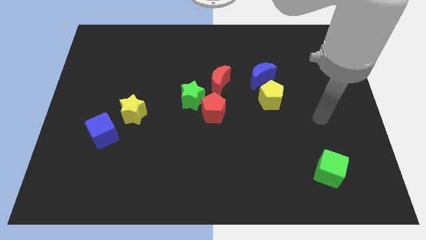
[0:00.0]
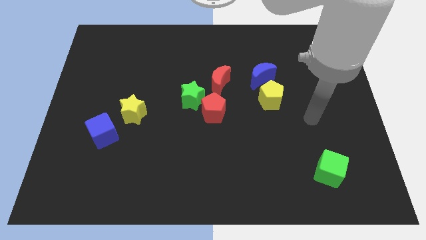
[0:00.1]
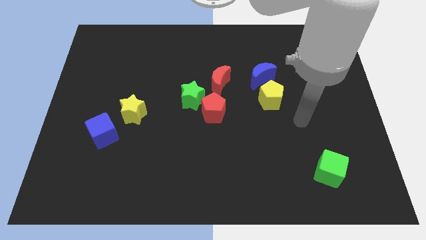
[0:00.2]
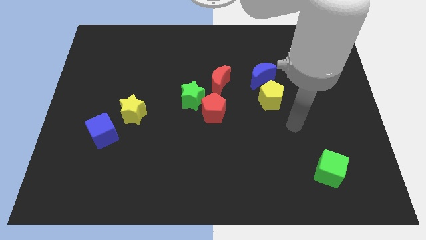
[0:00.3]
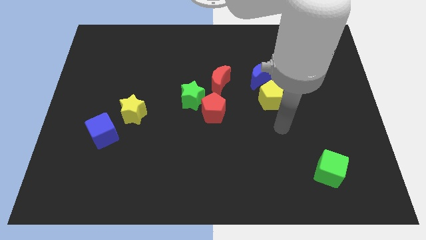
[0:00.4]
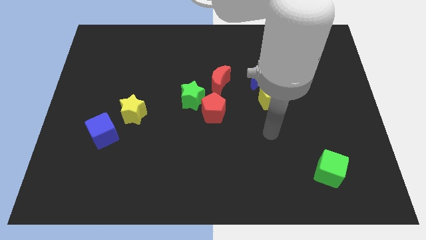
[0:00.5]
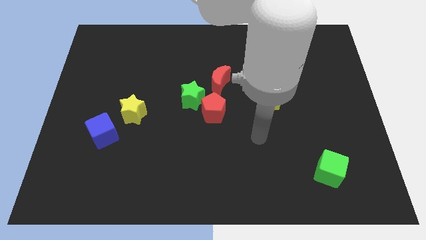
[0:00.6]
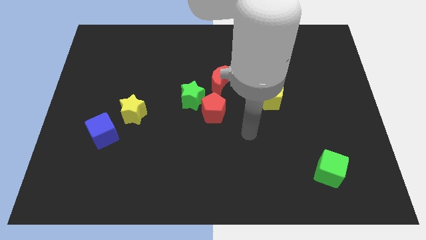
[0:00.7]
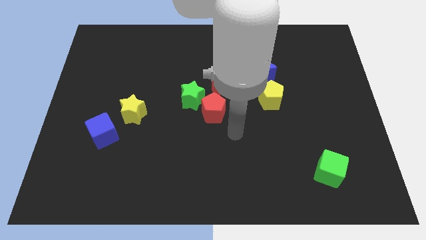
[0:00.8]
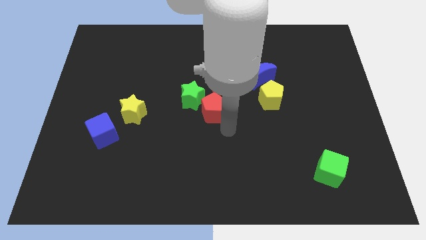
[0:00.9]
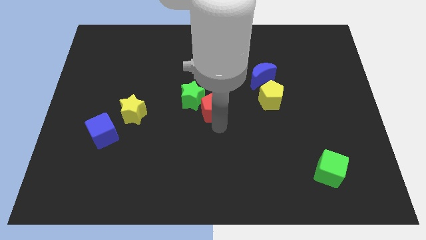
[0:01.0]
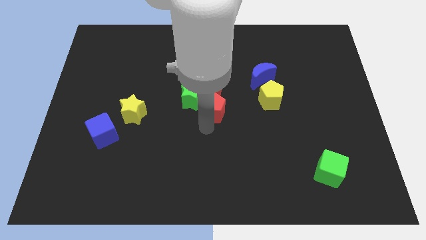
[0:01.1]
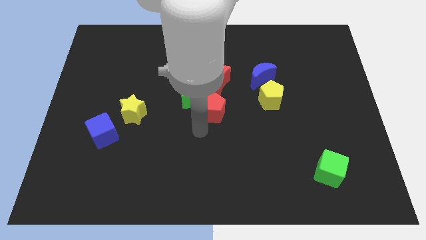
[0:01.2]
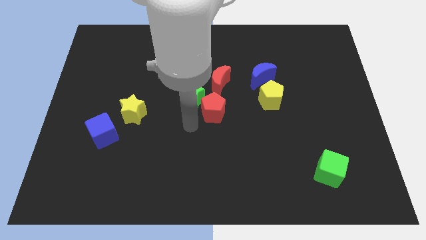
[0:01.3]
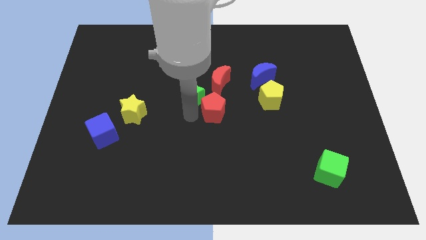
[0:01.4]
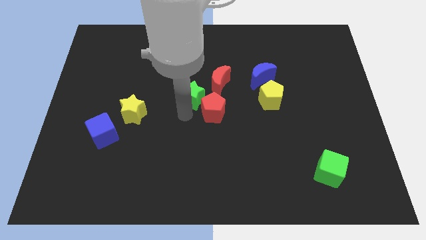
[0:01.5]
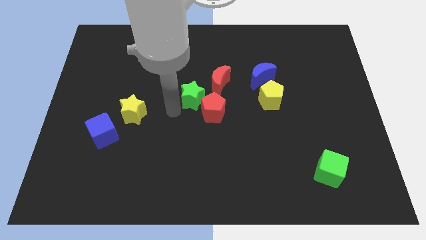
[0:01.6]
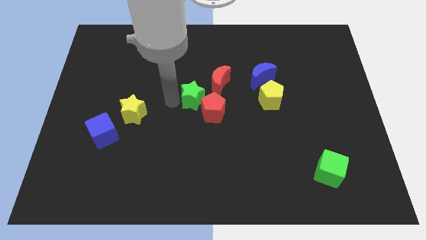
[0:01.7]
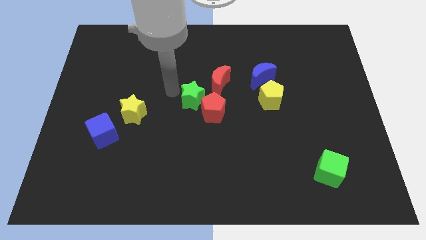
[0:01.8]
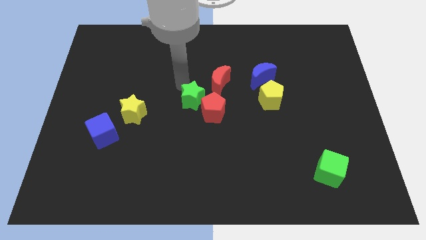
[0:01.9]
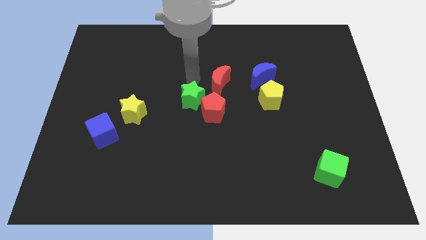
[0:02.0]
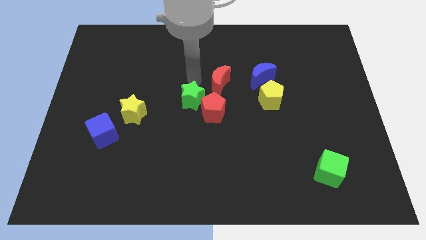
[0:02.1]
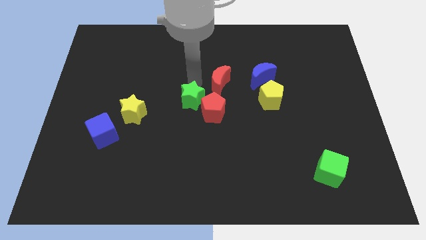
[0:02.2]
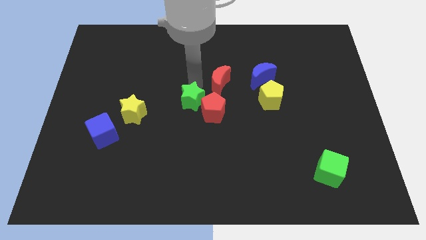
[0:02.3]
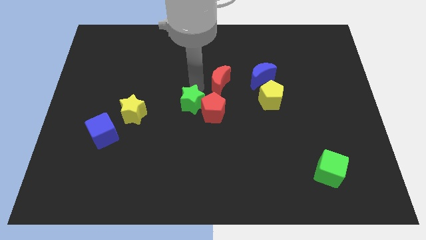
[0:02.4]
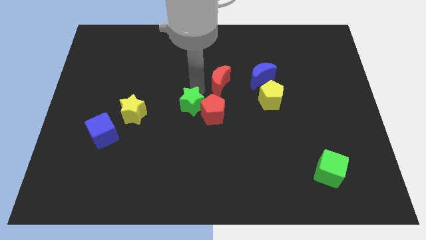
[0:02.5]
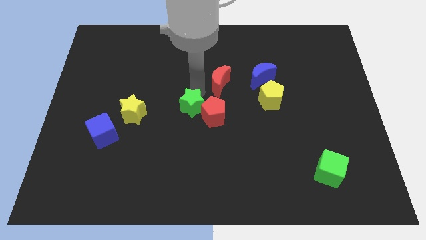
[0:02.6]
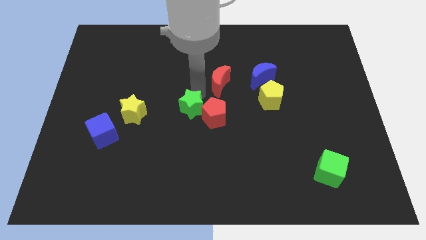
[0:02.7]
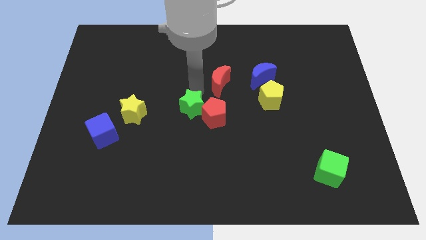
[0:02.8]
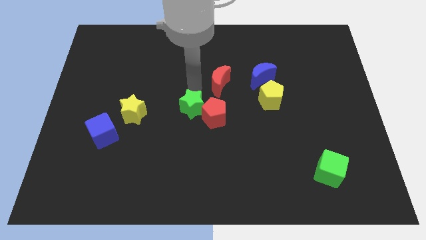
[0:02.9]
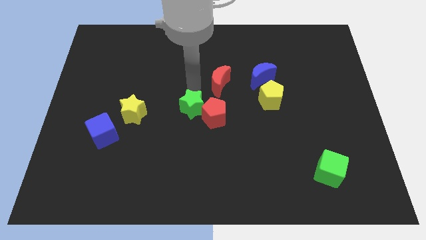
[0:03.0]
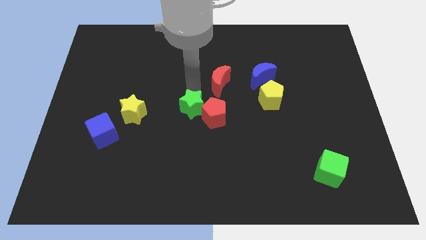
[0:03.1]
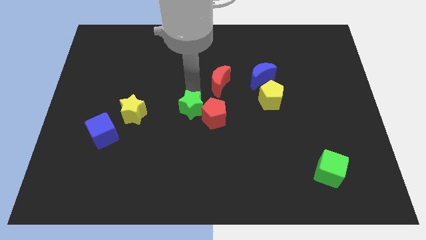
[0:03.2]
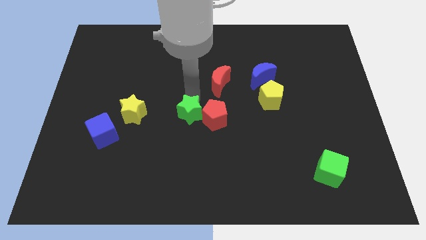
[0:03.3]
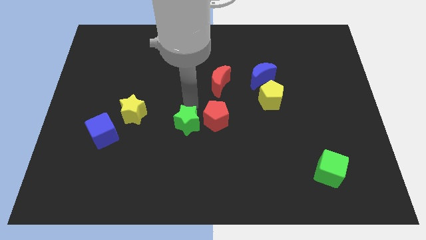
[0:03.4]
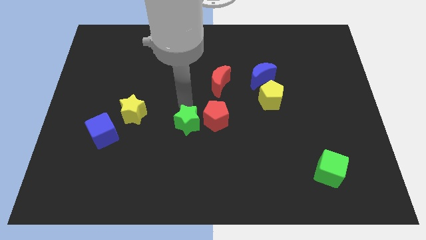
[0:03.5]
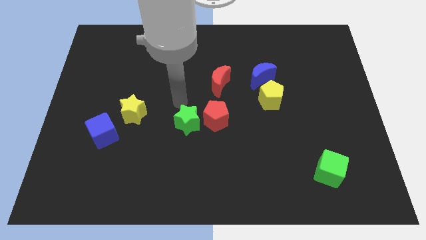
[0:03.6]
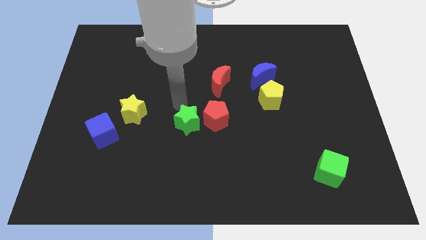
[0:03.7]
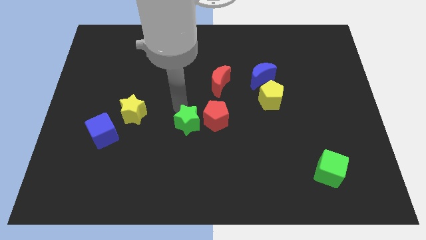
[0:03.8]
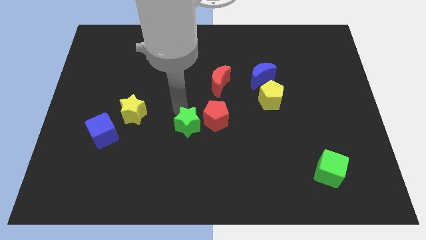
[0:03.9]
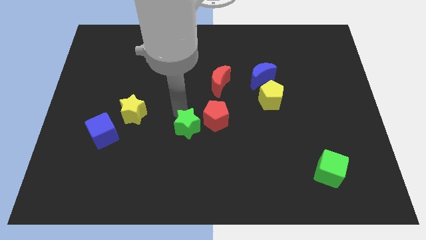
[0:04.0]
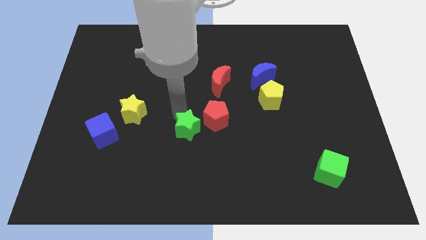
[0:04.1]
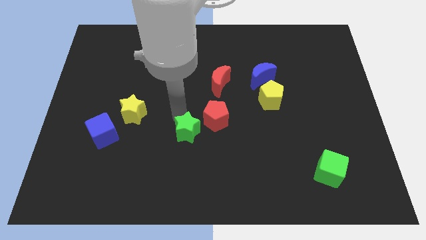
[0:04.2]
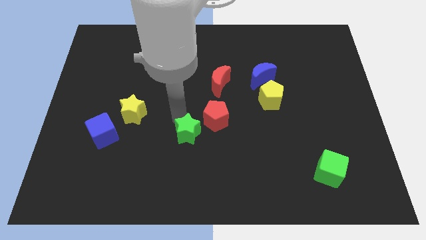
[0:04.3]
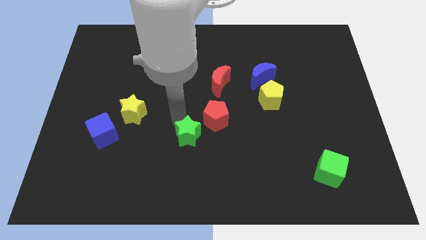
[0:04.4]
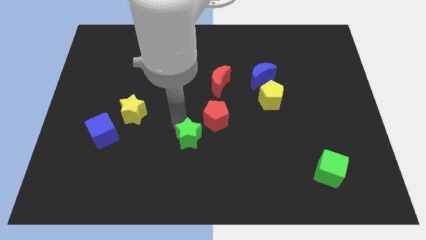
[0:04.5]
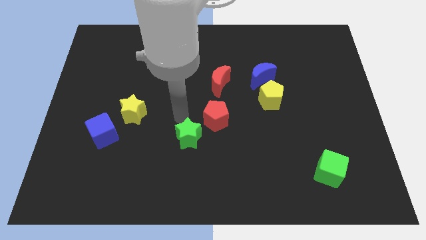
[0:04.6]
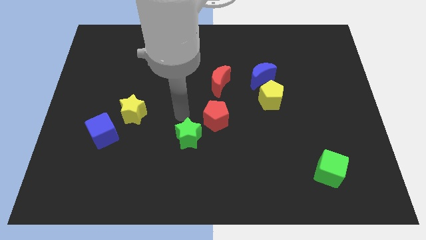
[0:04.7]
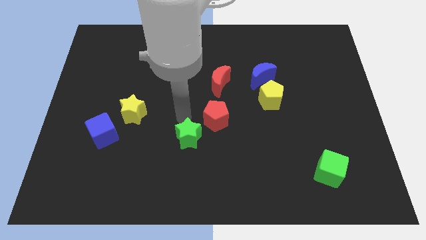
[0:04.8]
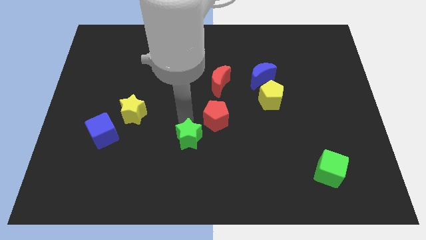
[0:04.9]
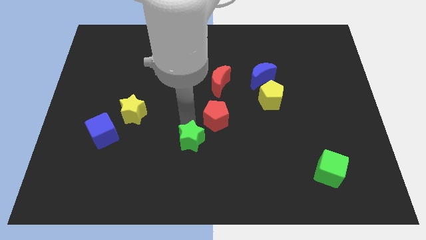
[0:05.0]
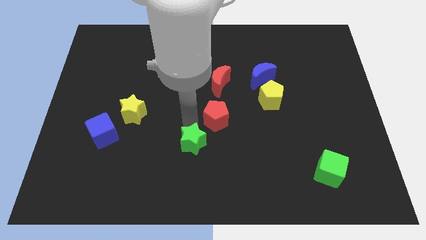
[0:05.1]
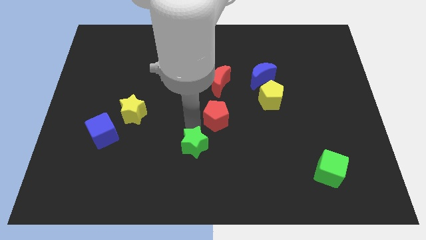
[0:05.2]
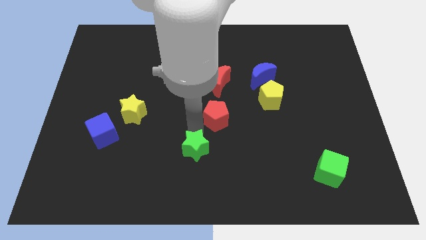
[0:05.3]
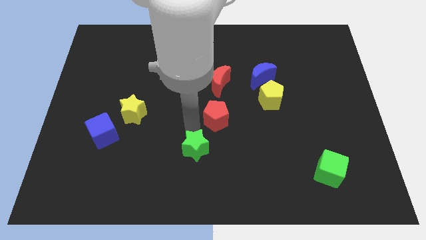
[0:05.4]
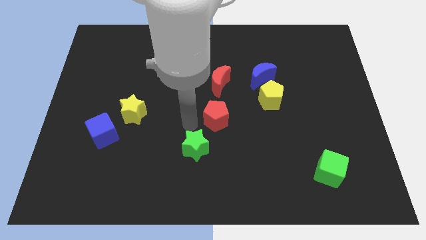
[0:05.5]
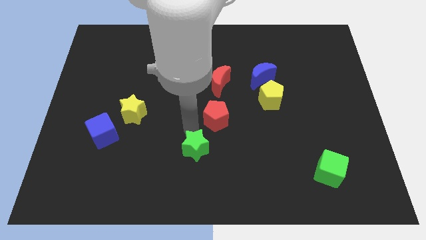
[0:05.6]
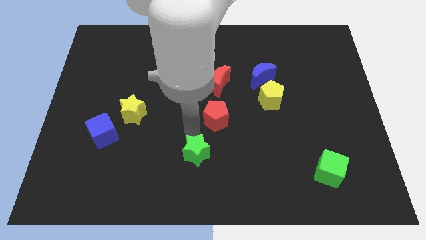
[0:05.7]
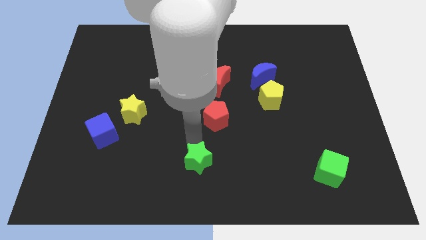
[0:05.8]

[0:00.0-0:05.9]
slide the green star to the bottom

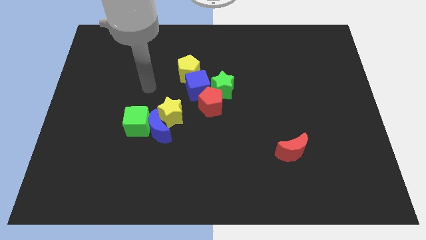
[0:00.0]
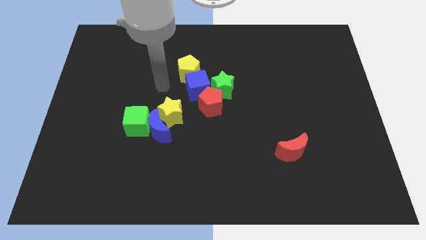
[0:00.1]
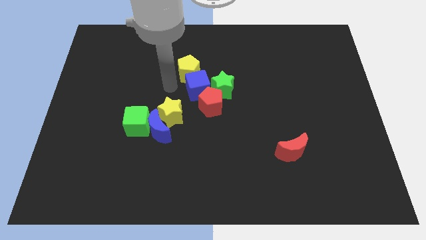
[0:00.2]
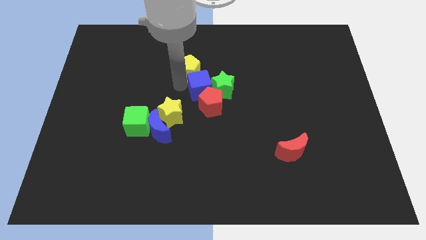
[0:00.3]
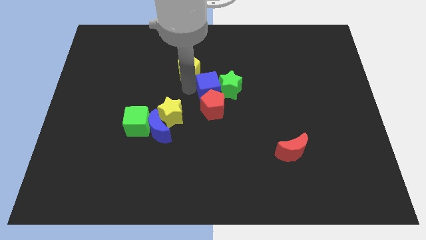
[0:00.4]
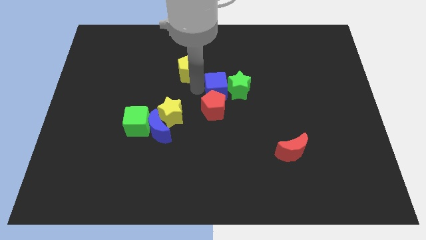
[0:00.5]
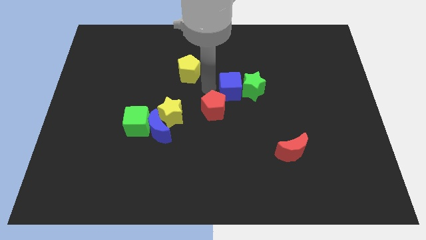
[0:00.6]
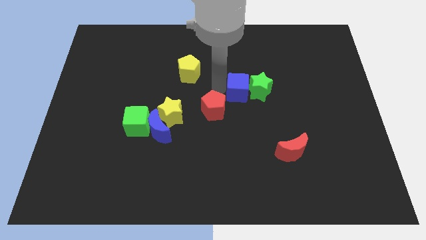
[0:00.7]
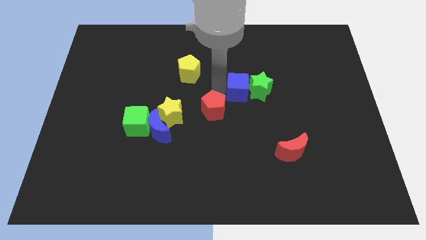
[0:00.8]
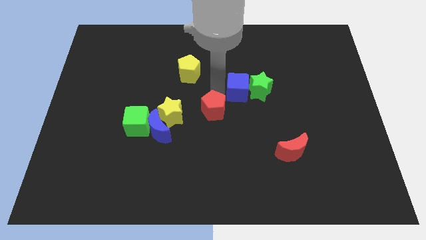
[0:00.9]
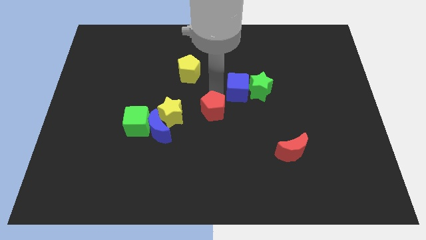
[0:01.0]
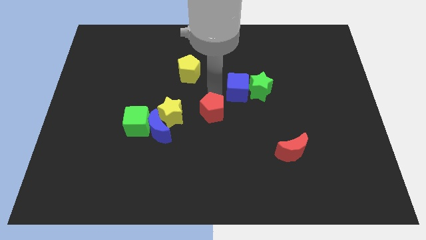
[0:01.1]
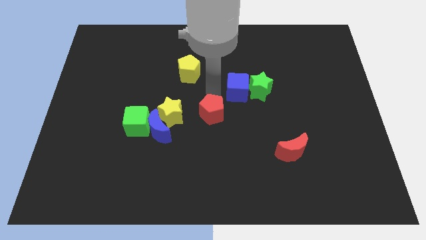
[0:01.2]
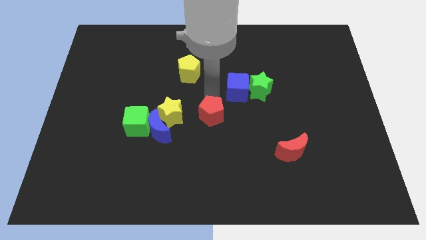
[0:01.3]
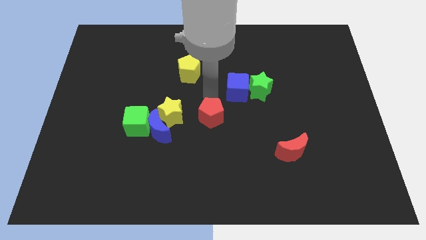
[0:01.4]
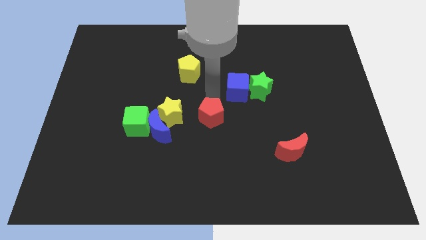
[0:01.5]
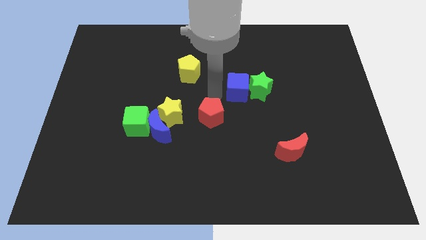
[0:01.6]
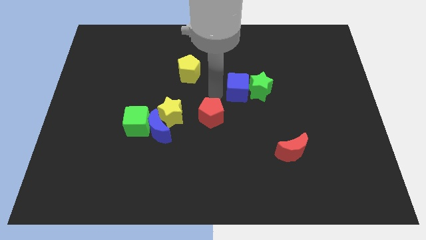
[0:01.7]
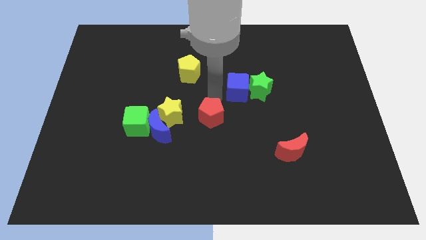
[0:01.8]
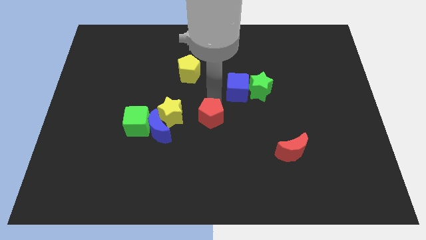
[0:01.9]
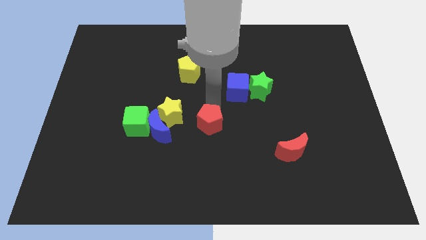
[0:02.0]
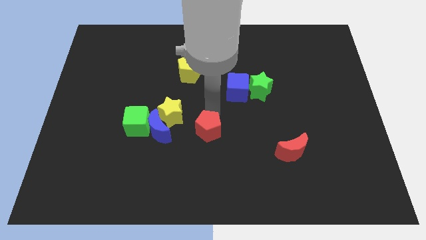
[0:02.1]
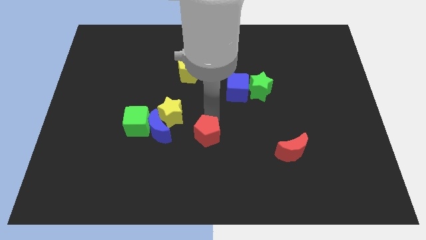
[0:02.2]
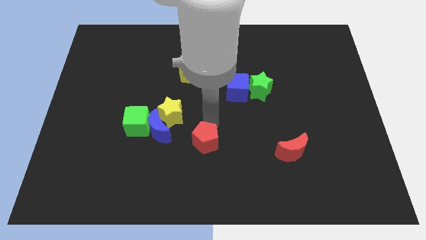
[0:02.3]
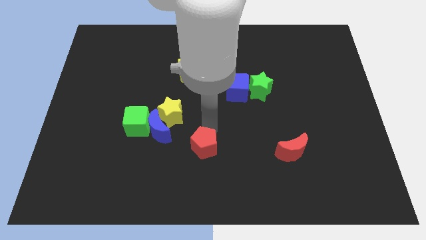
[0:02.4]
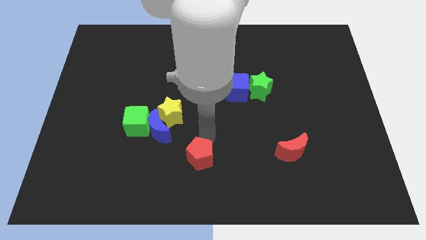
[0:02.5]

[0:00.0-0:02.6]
slide the red pentagon to the bottom side
